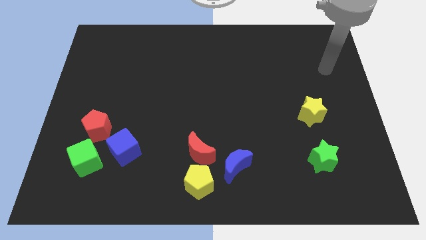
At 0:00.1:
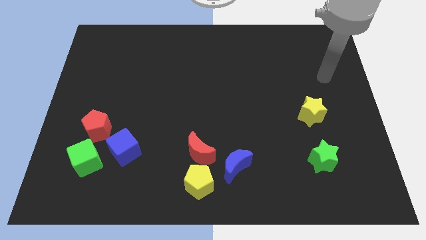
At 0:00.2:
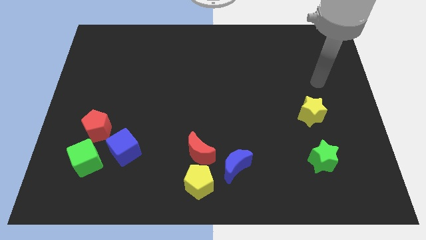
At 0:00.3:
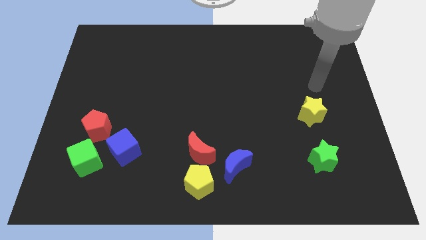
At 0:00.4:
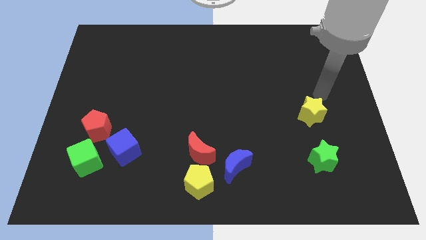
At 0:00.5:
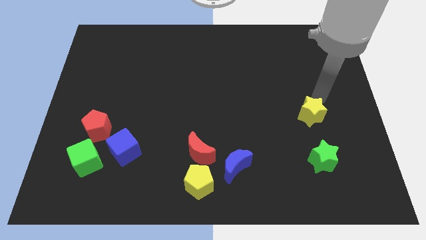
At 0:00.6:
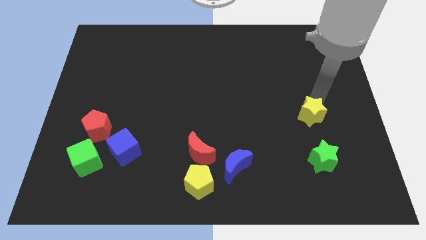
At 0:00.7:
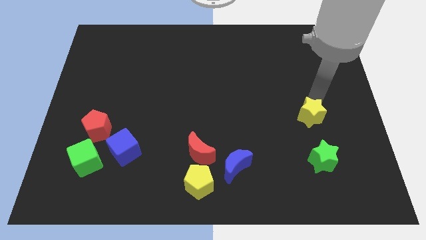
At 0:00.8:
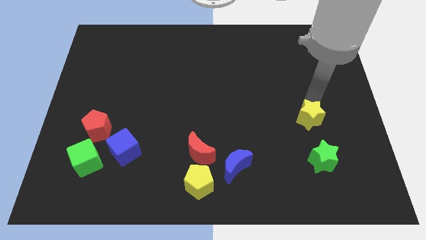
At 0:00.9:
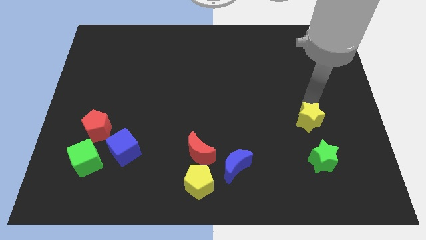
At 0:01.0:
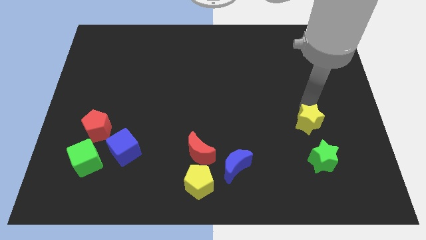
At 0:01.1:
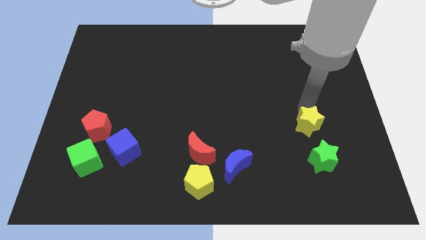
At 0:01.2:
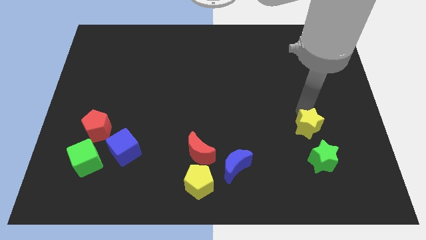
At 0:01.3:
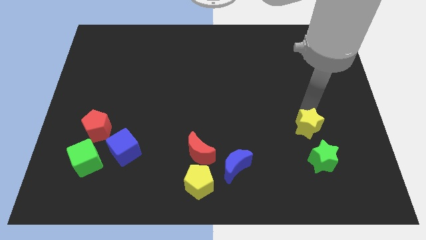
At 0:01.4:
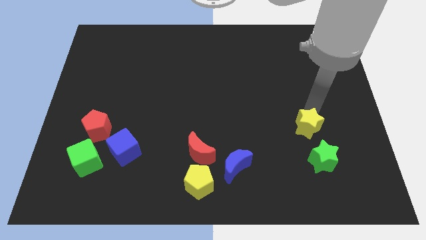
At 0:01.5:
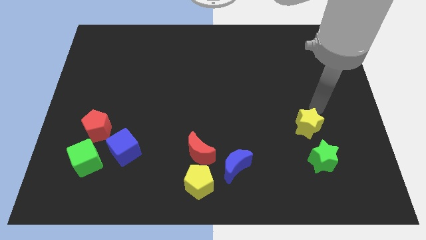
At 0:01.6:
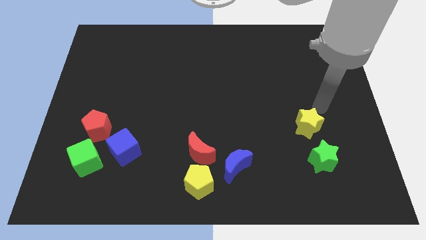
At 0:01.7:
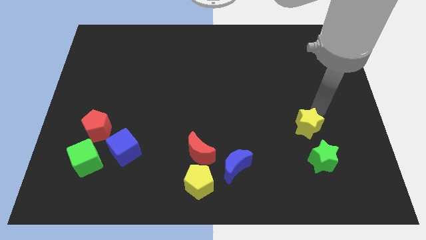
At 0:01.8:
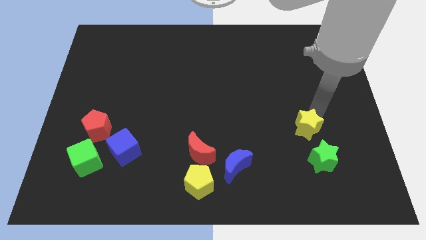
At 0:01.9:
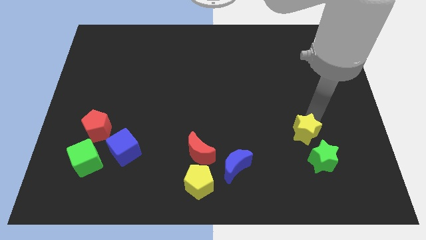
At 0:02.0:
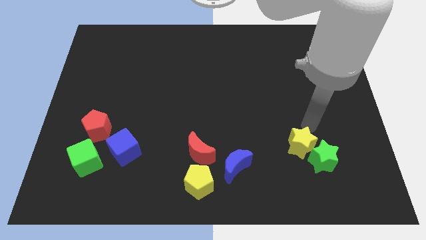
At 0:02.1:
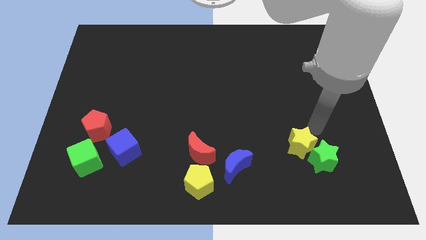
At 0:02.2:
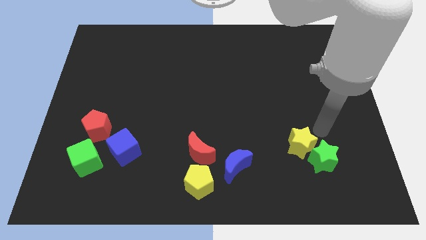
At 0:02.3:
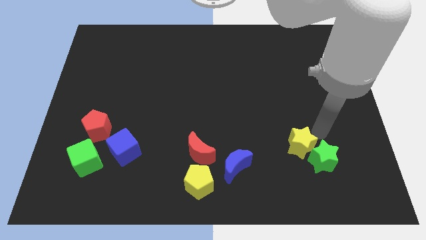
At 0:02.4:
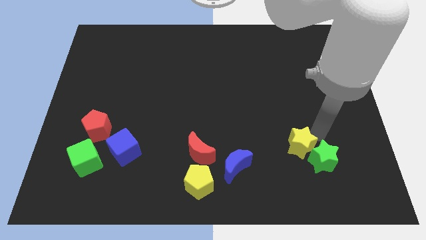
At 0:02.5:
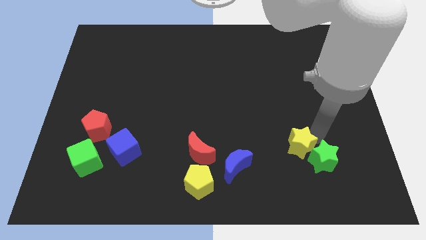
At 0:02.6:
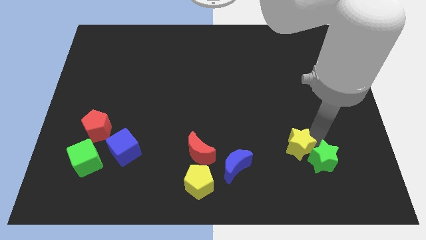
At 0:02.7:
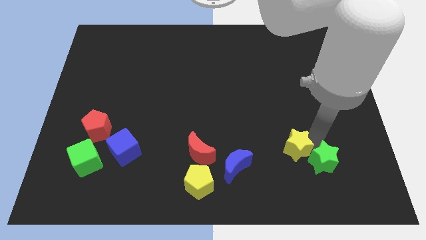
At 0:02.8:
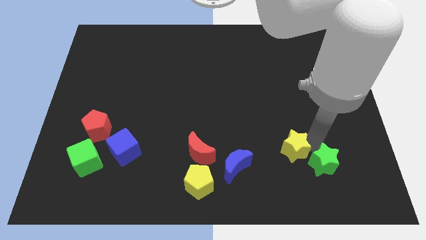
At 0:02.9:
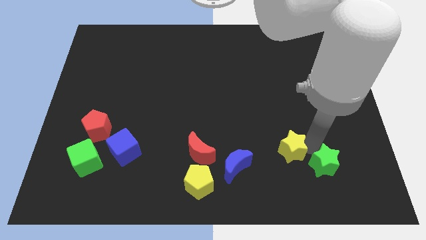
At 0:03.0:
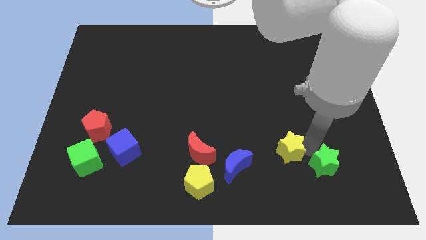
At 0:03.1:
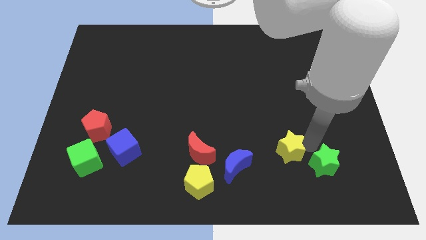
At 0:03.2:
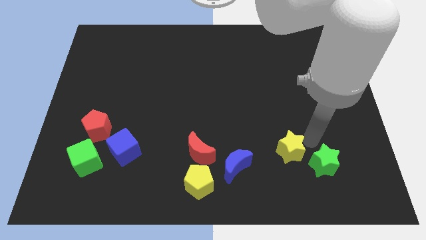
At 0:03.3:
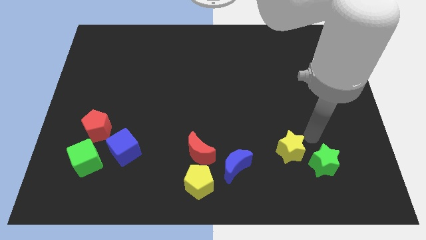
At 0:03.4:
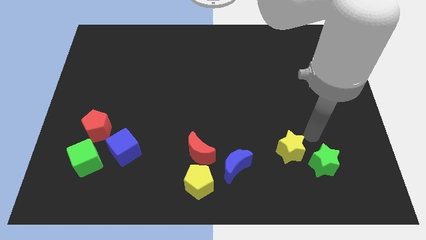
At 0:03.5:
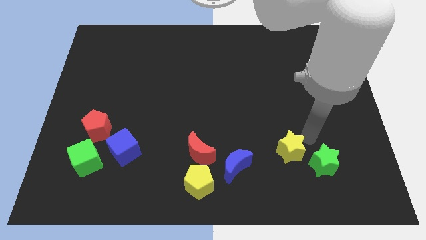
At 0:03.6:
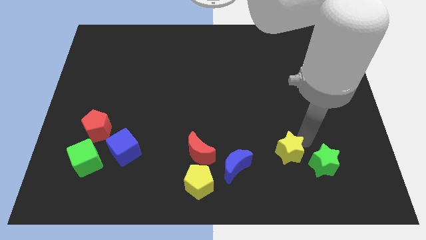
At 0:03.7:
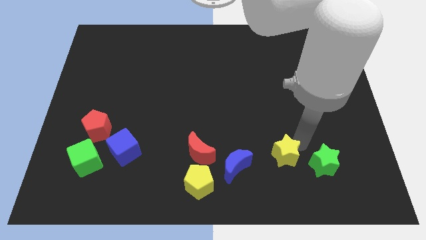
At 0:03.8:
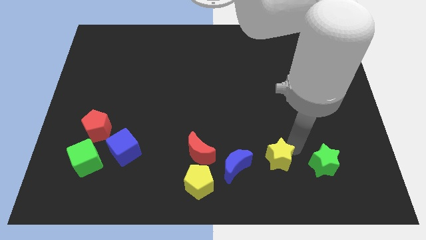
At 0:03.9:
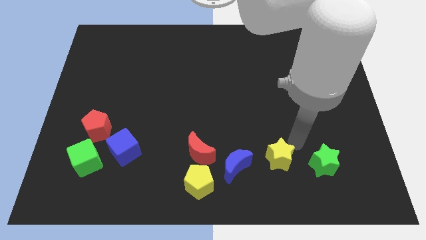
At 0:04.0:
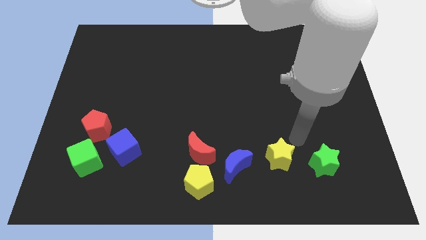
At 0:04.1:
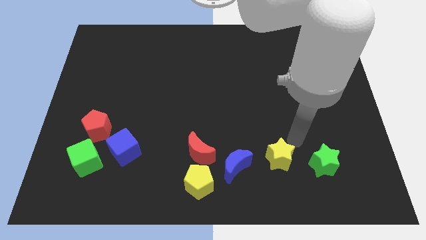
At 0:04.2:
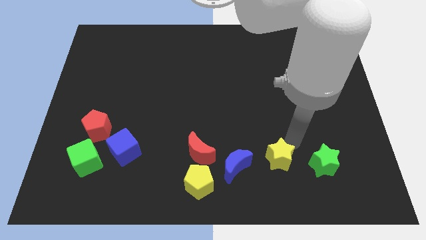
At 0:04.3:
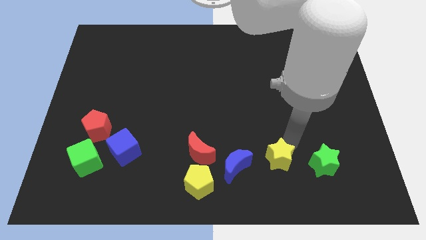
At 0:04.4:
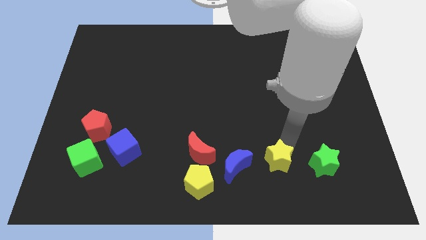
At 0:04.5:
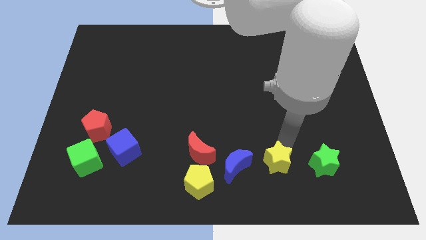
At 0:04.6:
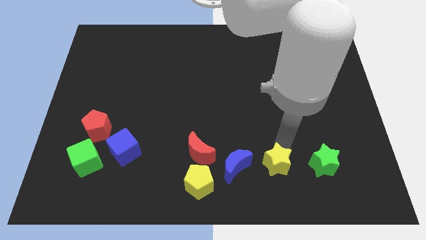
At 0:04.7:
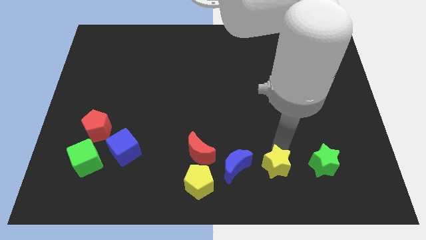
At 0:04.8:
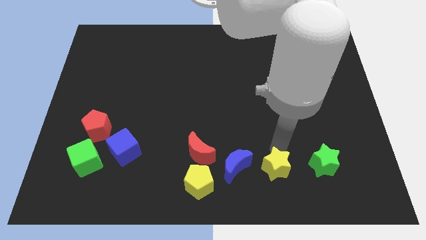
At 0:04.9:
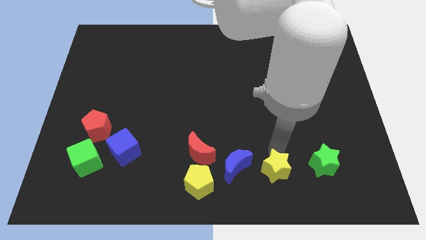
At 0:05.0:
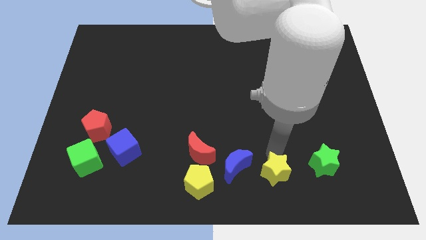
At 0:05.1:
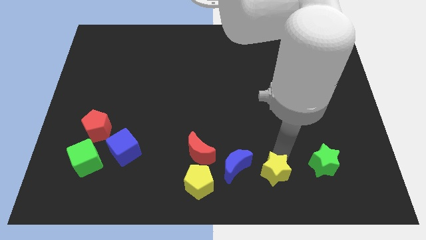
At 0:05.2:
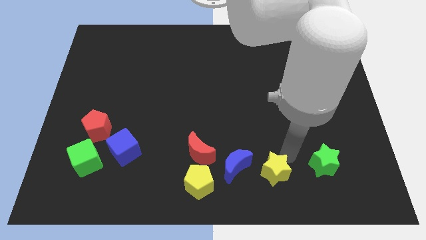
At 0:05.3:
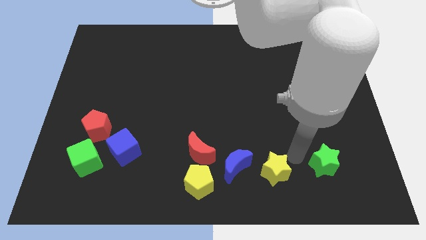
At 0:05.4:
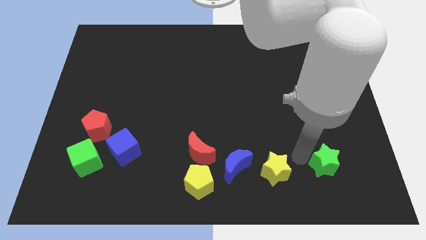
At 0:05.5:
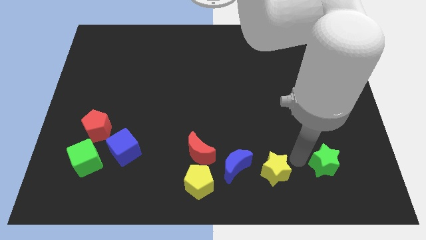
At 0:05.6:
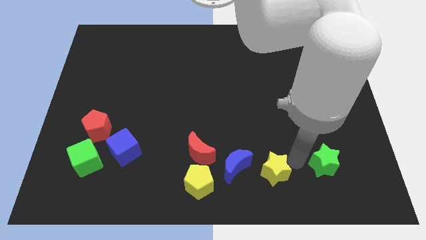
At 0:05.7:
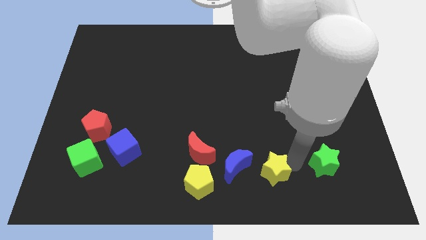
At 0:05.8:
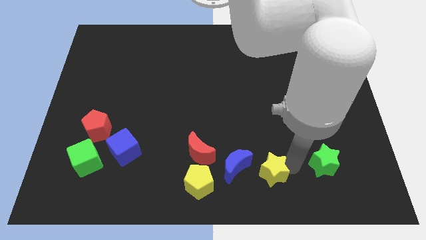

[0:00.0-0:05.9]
slide the yellow star to the right side of the yellow pentagon

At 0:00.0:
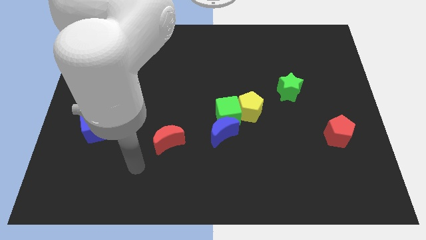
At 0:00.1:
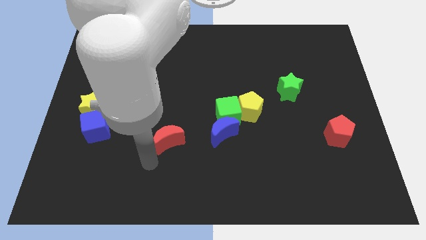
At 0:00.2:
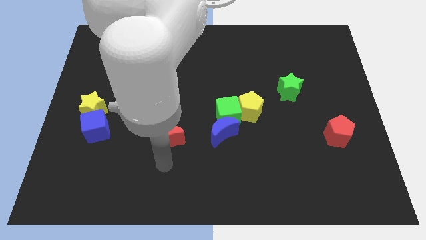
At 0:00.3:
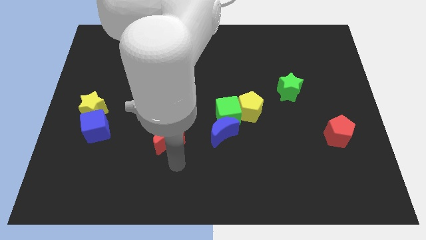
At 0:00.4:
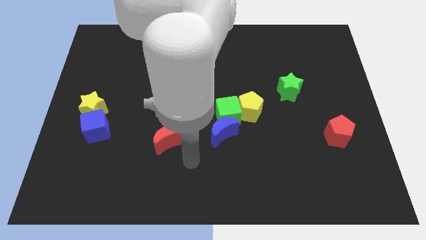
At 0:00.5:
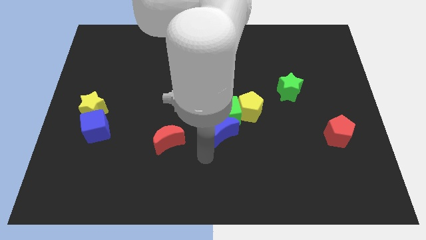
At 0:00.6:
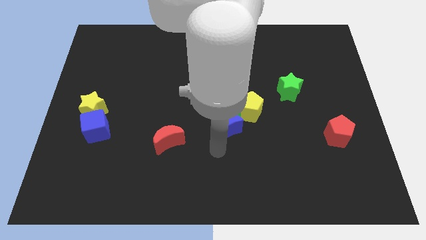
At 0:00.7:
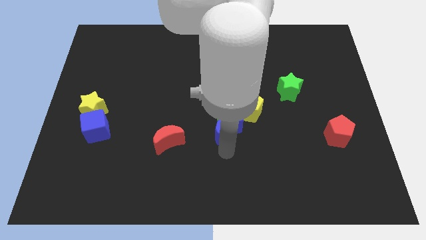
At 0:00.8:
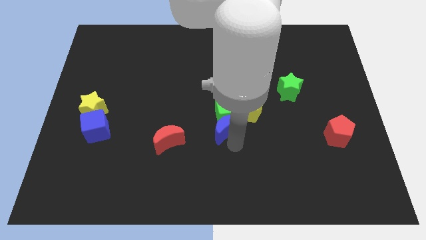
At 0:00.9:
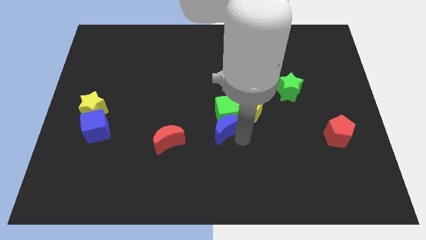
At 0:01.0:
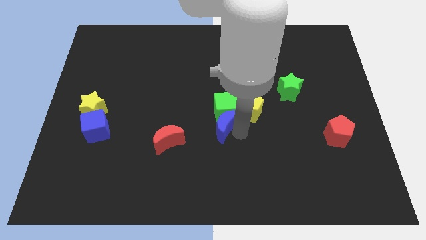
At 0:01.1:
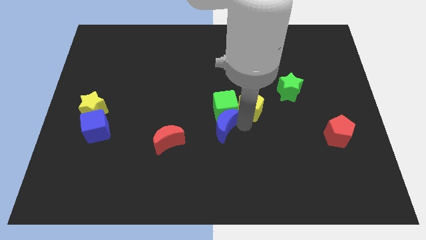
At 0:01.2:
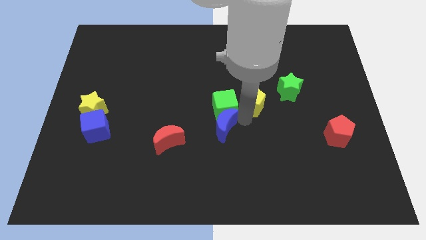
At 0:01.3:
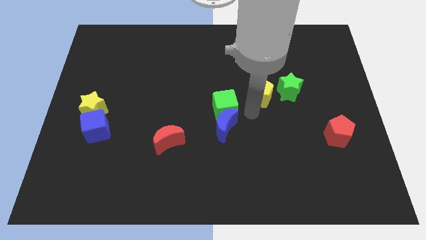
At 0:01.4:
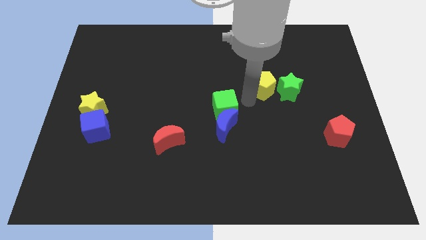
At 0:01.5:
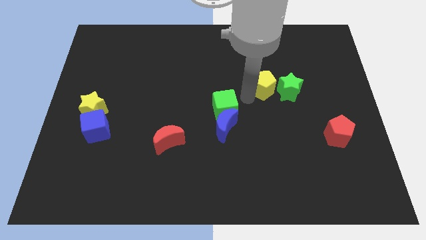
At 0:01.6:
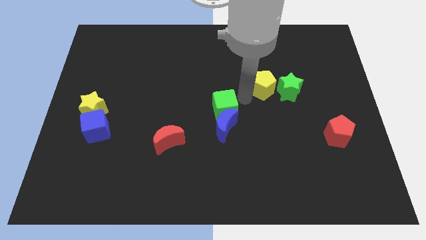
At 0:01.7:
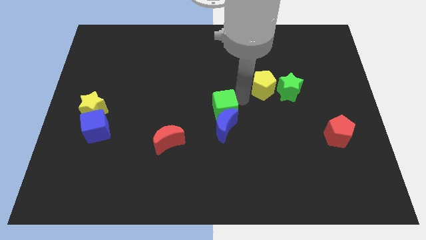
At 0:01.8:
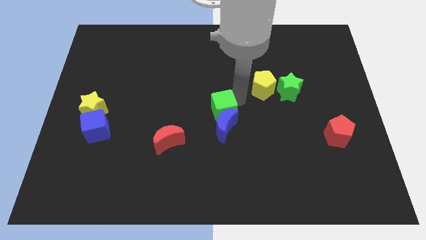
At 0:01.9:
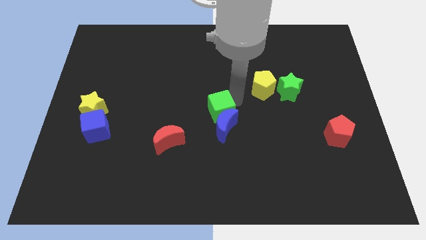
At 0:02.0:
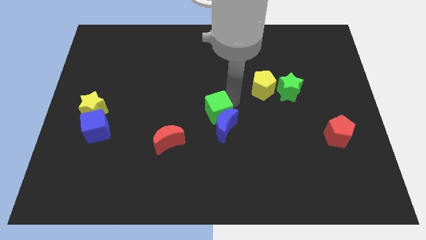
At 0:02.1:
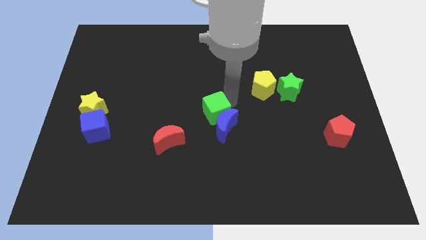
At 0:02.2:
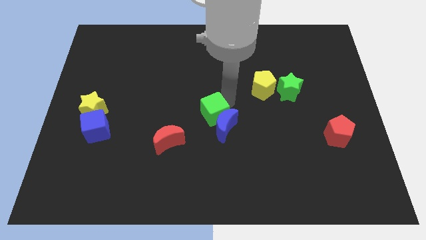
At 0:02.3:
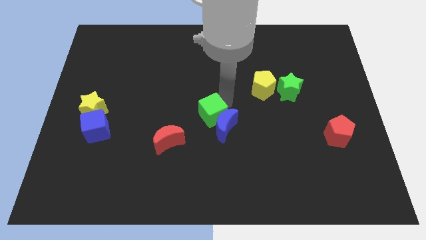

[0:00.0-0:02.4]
slide the green cube to the left of the blue moon
